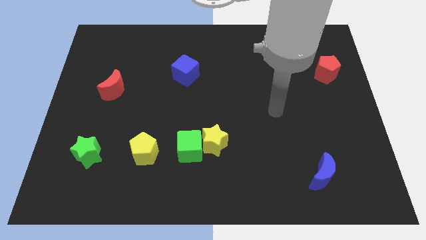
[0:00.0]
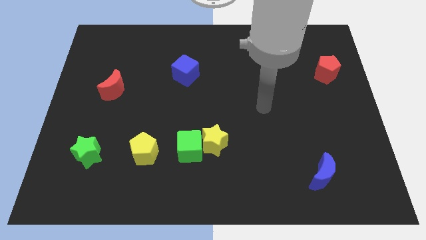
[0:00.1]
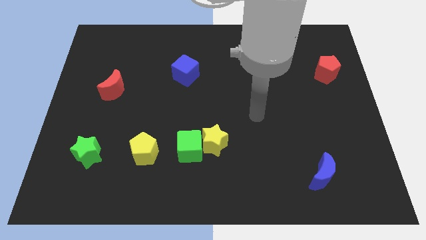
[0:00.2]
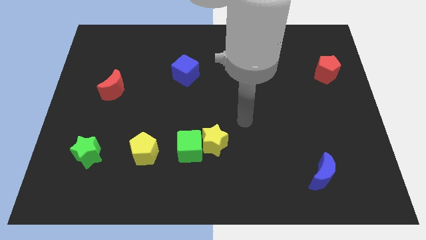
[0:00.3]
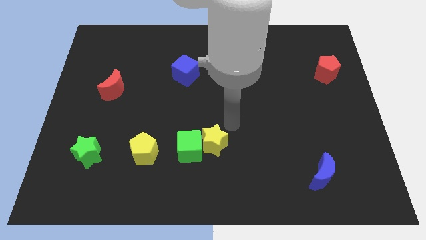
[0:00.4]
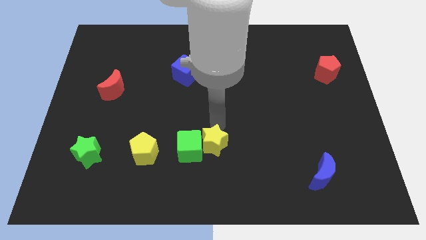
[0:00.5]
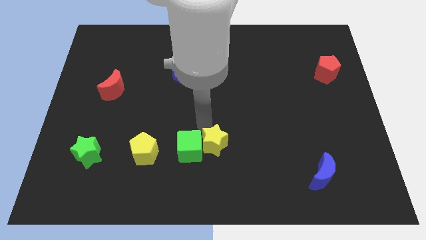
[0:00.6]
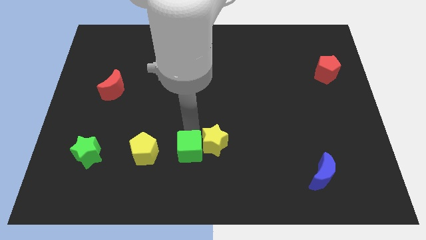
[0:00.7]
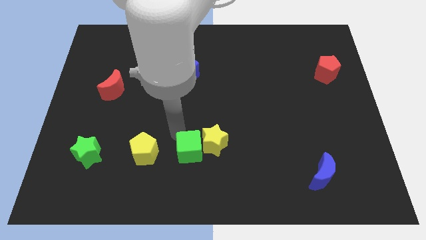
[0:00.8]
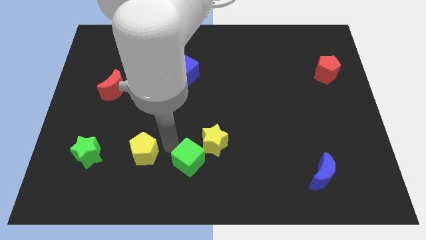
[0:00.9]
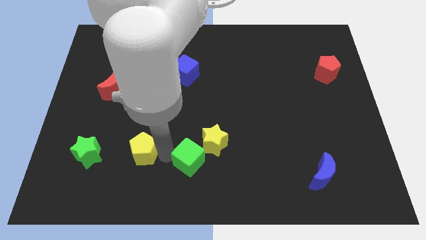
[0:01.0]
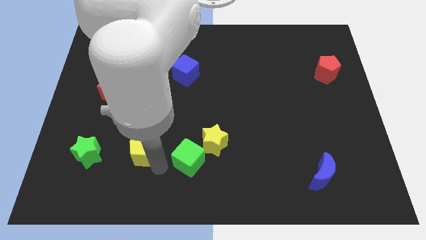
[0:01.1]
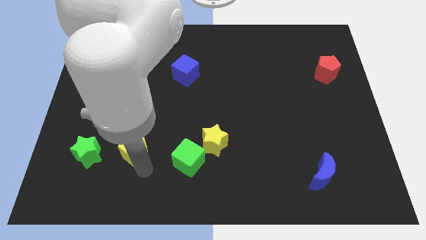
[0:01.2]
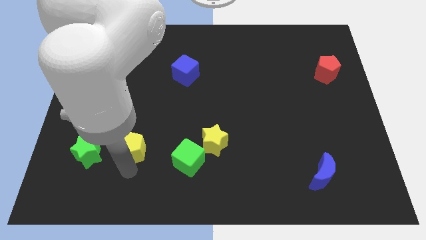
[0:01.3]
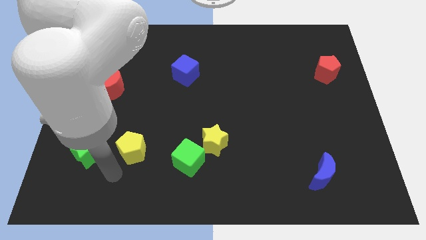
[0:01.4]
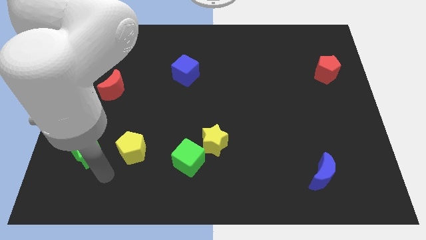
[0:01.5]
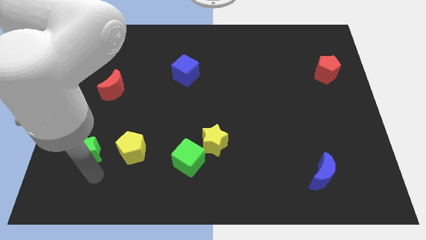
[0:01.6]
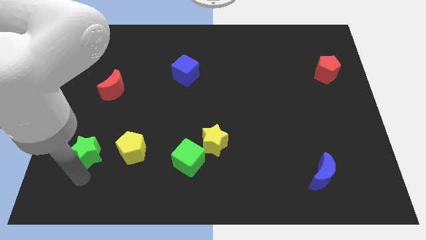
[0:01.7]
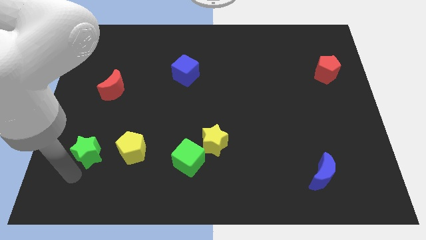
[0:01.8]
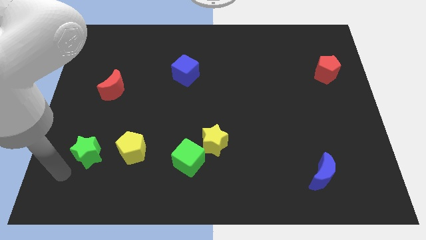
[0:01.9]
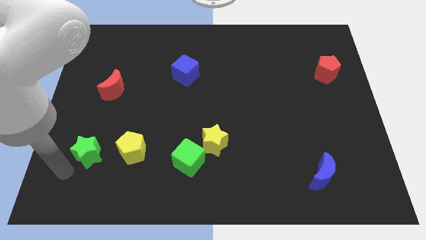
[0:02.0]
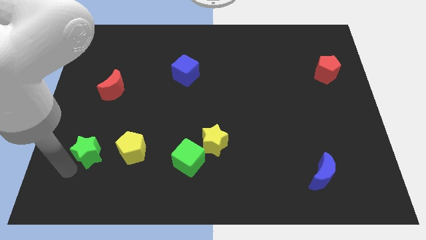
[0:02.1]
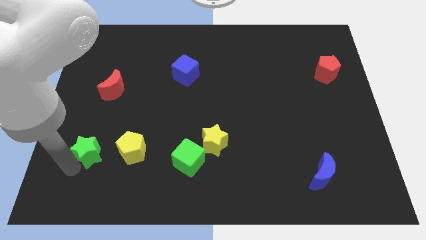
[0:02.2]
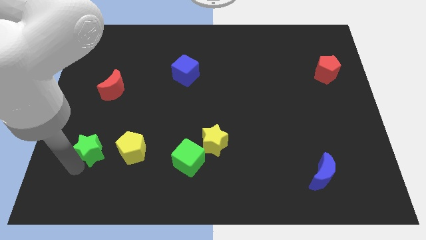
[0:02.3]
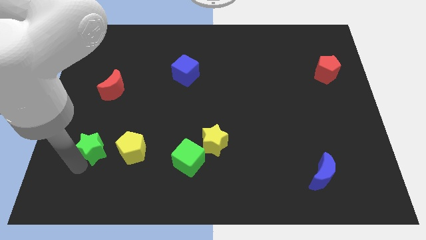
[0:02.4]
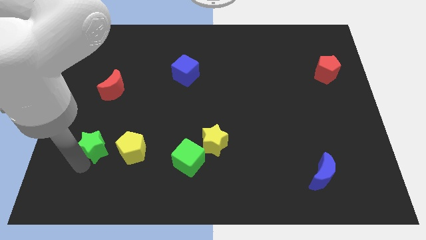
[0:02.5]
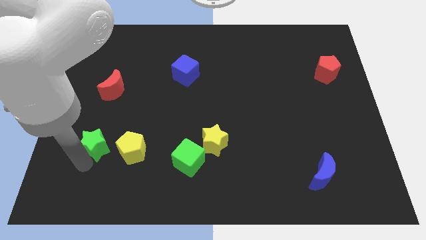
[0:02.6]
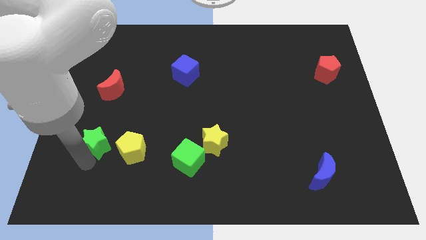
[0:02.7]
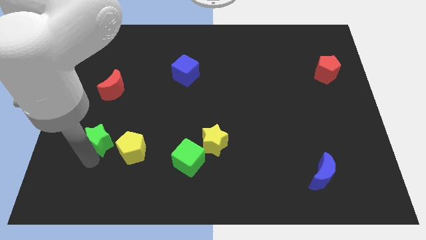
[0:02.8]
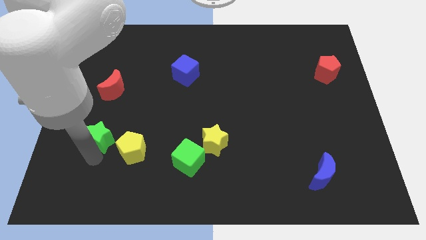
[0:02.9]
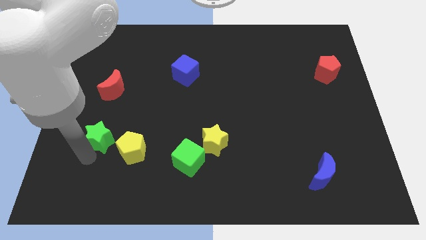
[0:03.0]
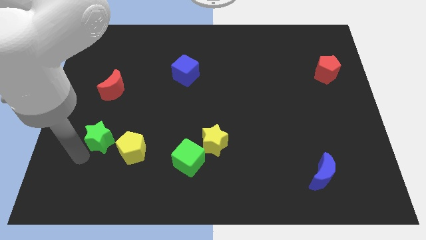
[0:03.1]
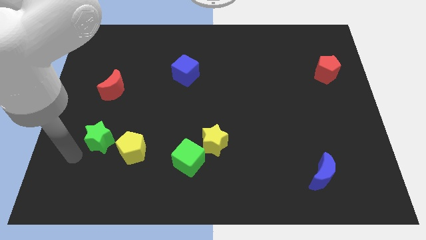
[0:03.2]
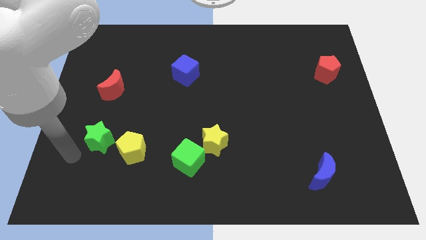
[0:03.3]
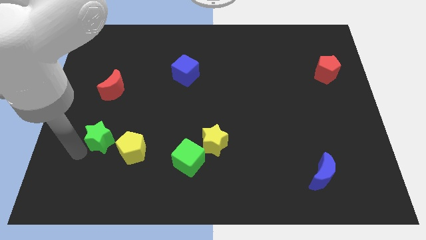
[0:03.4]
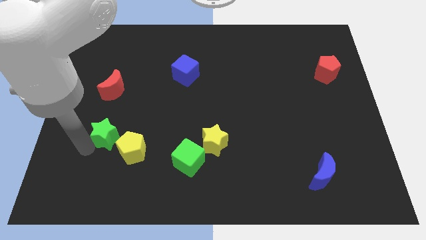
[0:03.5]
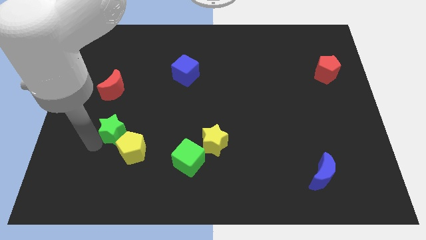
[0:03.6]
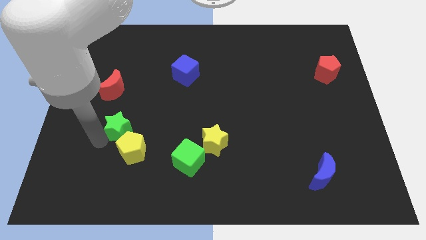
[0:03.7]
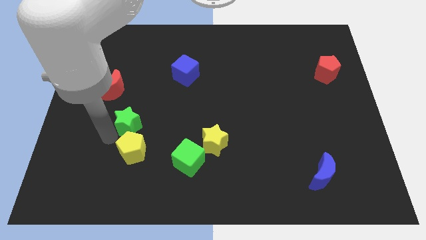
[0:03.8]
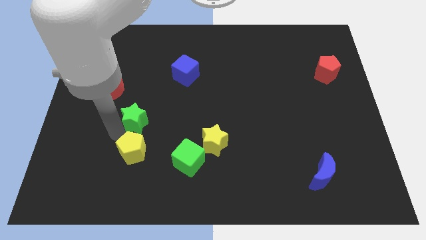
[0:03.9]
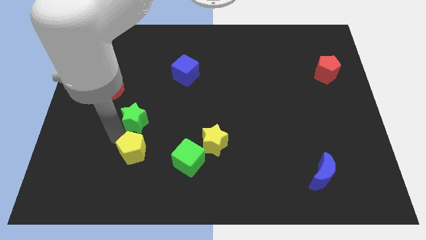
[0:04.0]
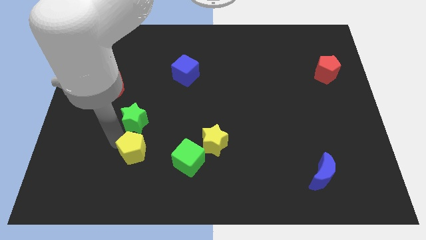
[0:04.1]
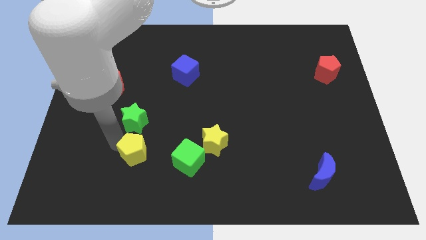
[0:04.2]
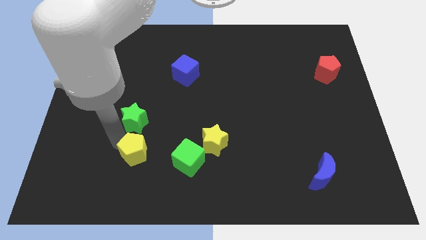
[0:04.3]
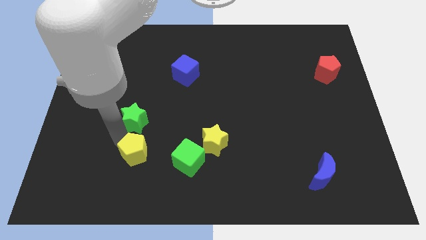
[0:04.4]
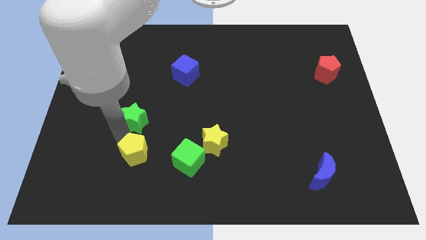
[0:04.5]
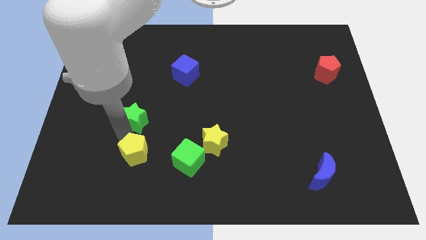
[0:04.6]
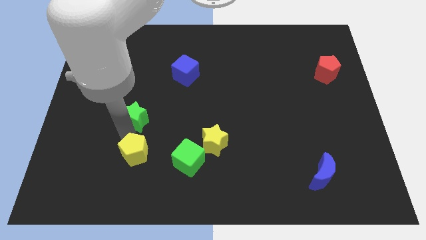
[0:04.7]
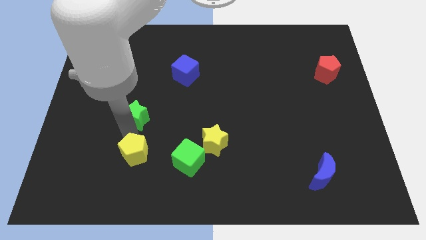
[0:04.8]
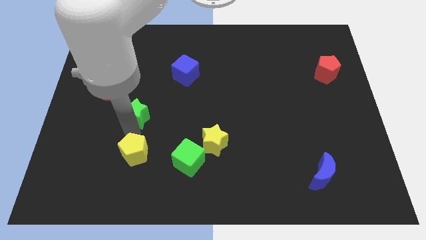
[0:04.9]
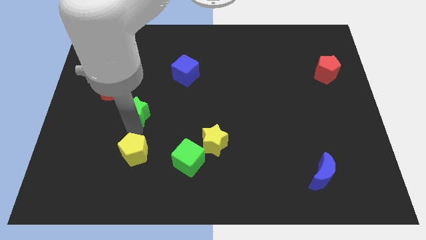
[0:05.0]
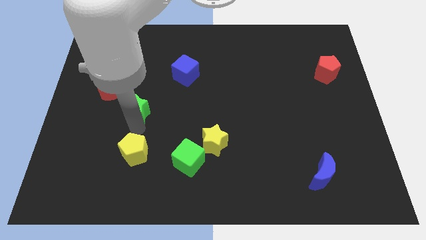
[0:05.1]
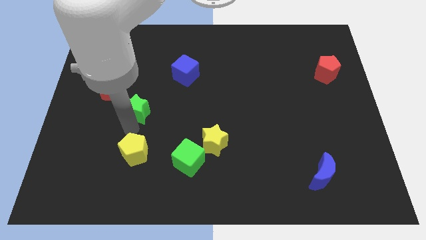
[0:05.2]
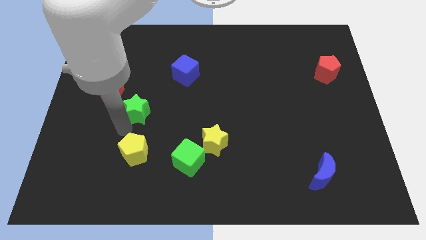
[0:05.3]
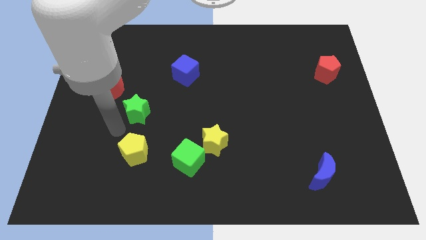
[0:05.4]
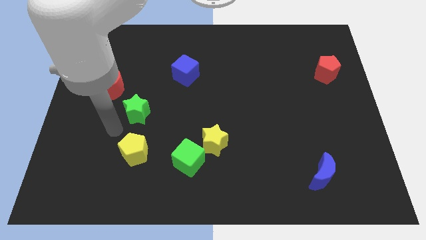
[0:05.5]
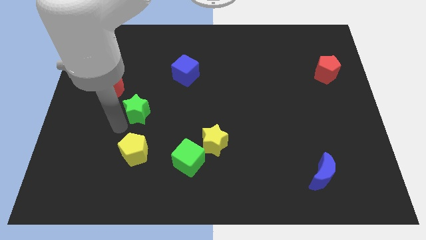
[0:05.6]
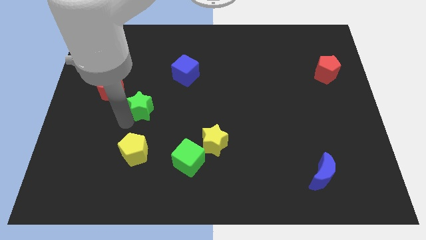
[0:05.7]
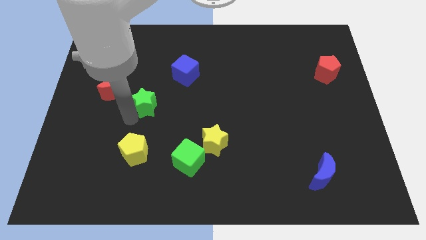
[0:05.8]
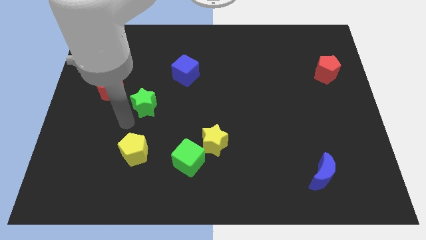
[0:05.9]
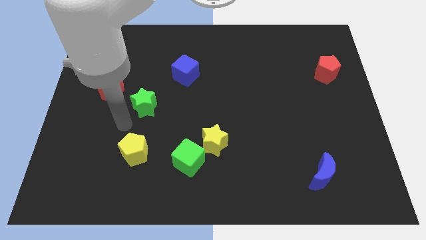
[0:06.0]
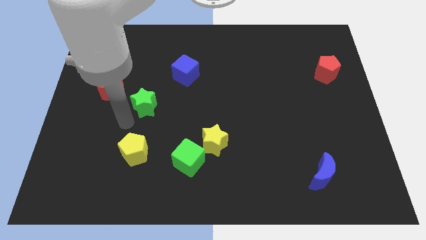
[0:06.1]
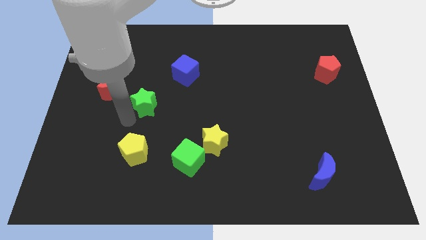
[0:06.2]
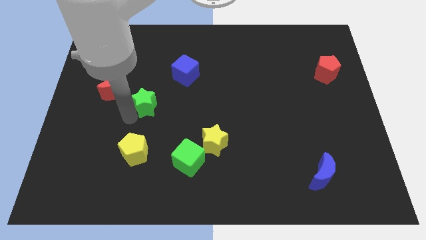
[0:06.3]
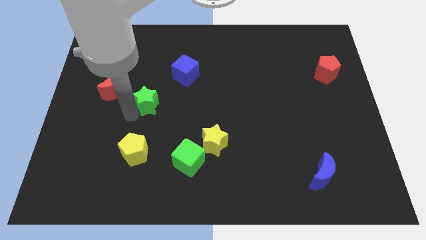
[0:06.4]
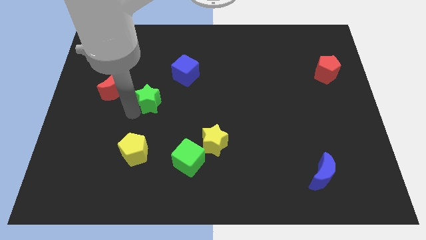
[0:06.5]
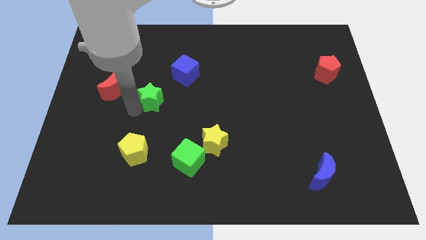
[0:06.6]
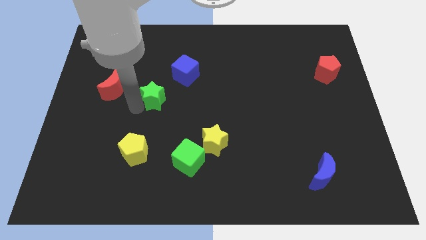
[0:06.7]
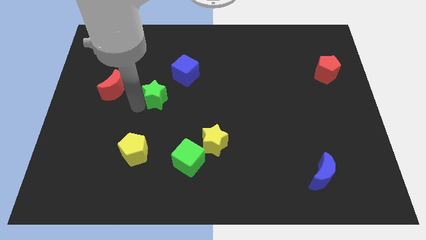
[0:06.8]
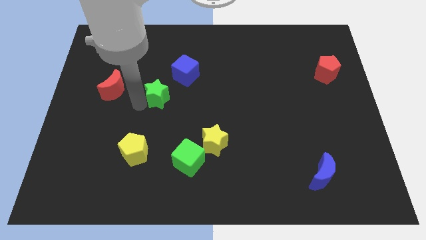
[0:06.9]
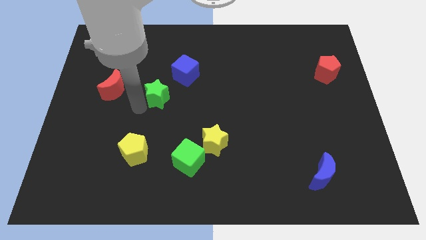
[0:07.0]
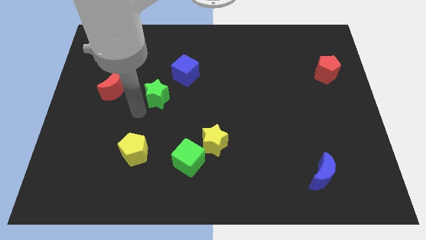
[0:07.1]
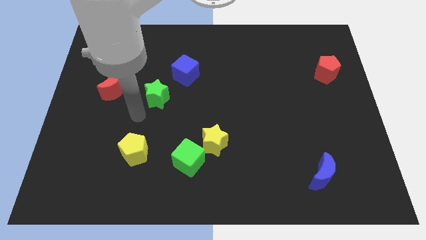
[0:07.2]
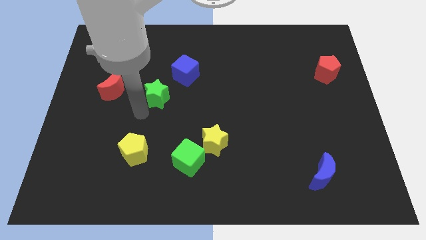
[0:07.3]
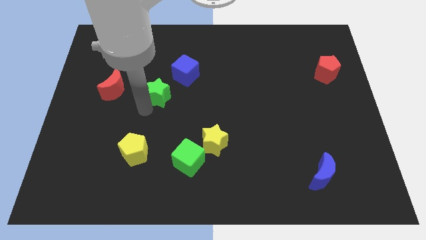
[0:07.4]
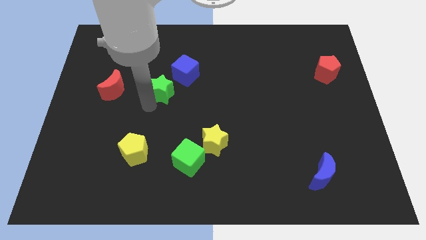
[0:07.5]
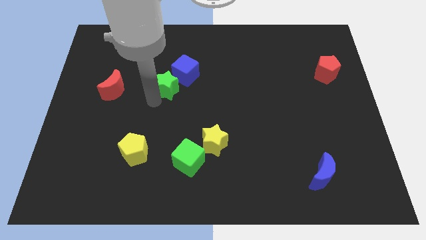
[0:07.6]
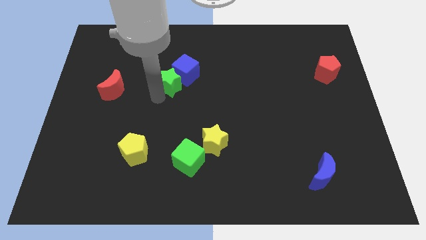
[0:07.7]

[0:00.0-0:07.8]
move the green star close to the blue cube

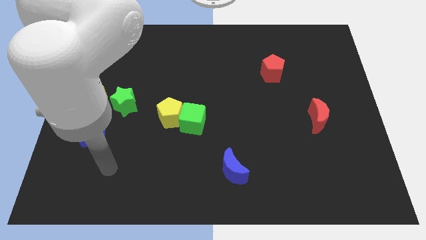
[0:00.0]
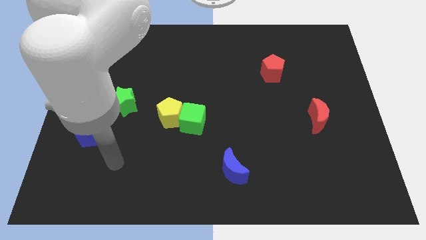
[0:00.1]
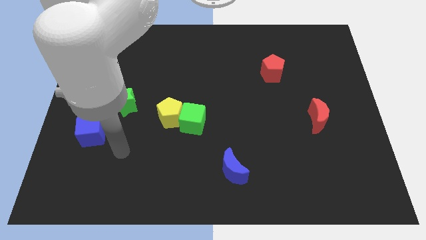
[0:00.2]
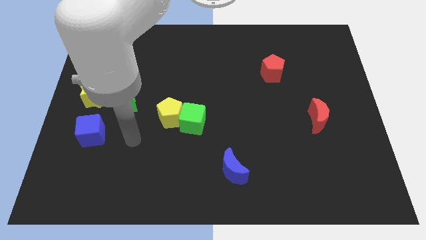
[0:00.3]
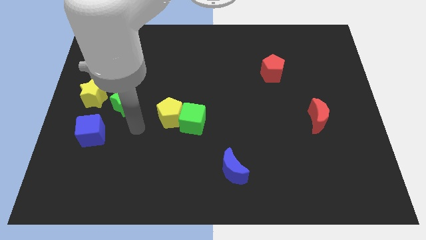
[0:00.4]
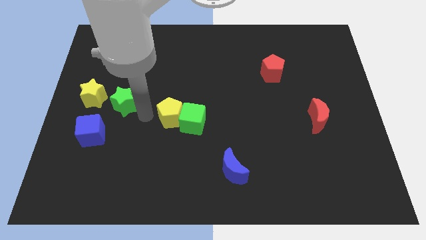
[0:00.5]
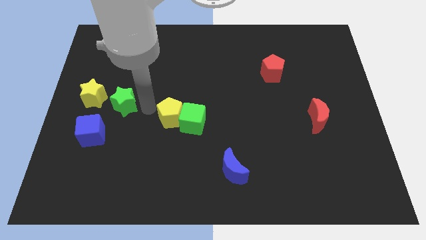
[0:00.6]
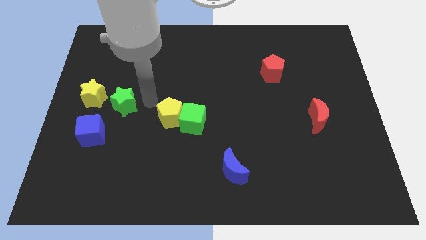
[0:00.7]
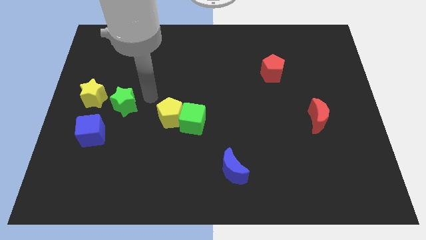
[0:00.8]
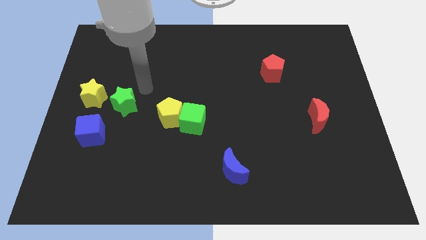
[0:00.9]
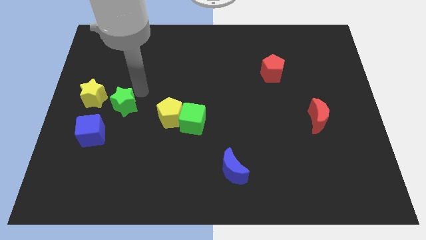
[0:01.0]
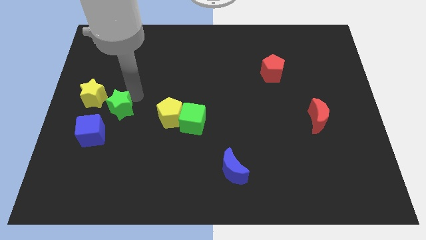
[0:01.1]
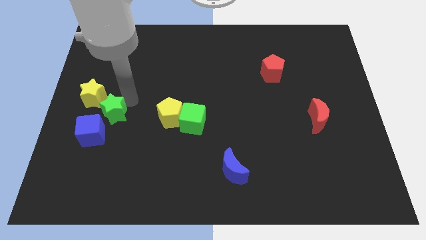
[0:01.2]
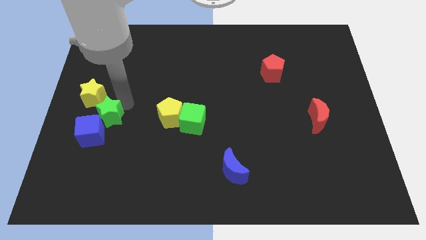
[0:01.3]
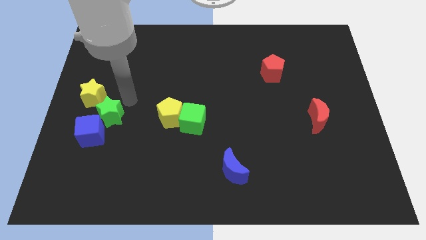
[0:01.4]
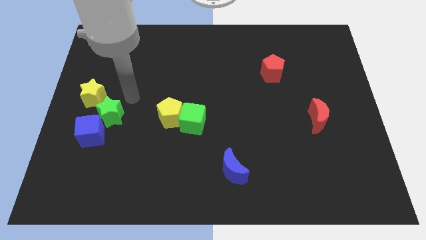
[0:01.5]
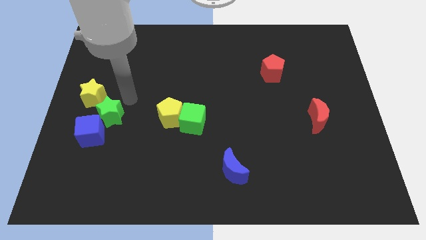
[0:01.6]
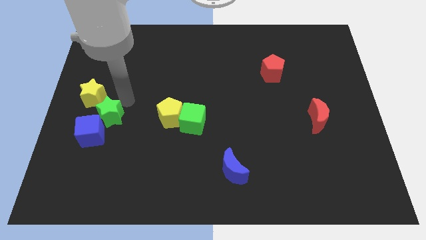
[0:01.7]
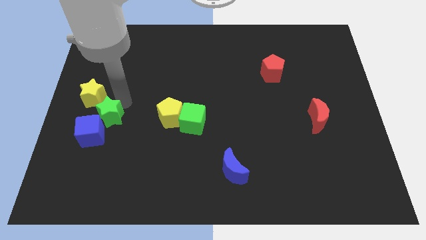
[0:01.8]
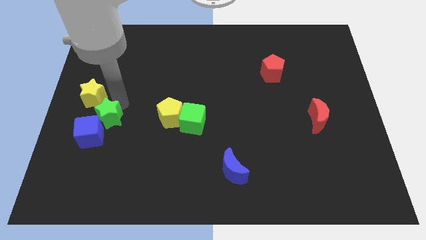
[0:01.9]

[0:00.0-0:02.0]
push the green star next to the blue cube
